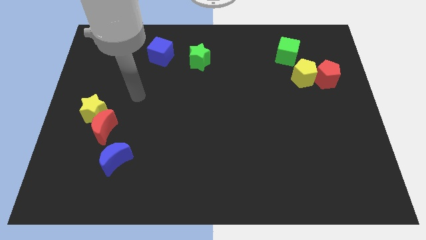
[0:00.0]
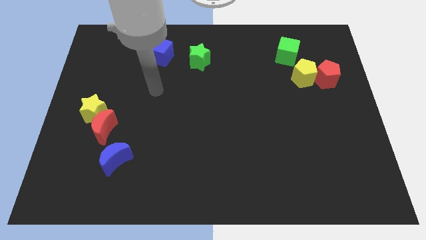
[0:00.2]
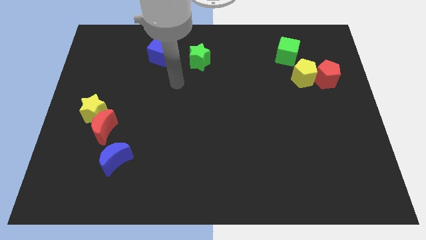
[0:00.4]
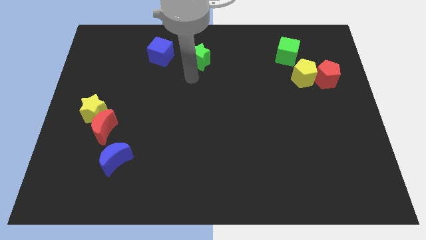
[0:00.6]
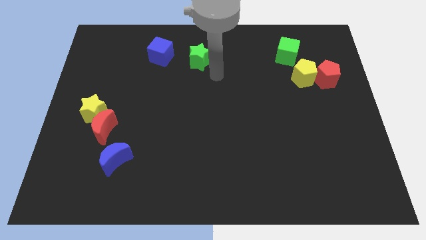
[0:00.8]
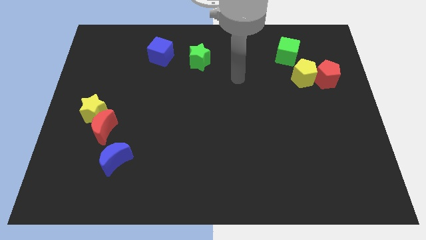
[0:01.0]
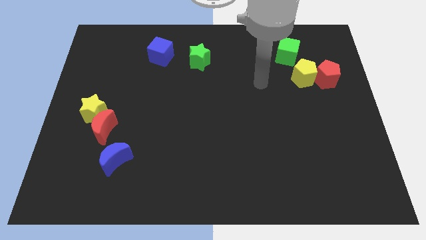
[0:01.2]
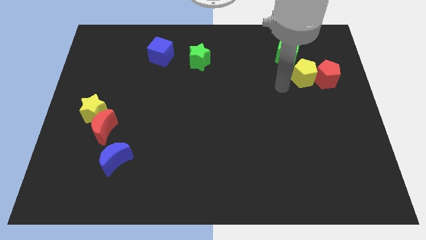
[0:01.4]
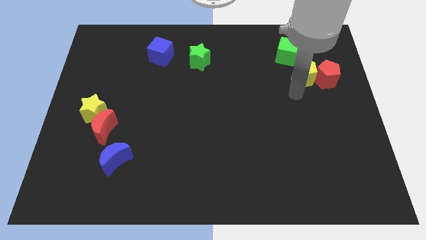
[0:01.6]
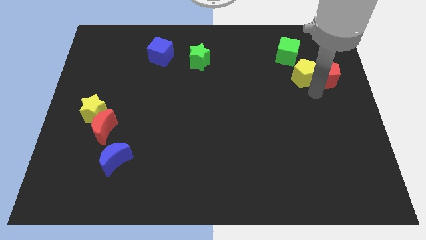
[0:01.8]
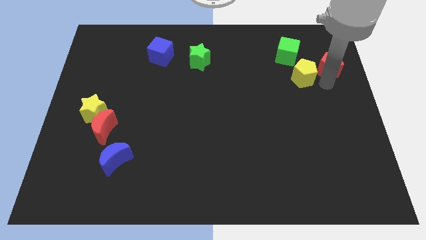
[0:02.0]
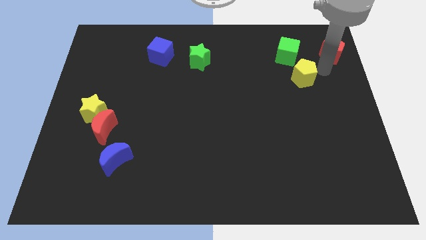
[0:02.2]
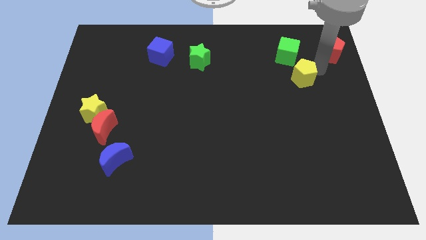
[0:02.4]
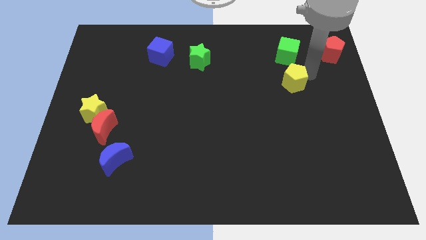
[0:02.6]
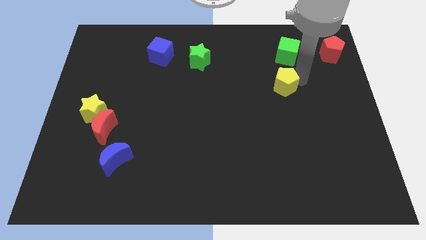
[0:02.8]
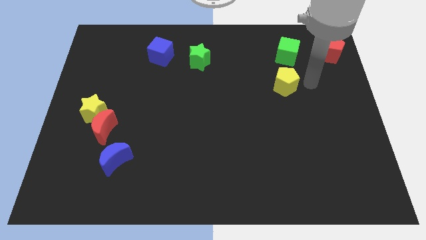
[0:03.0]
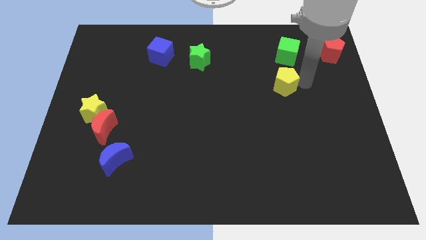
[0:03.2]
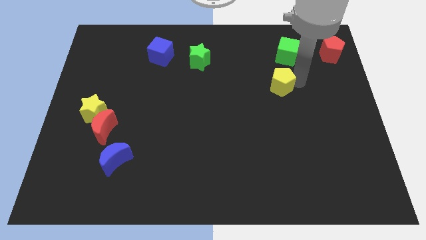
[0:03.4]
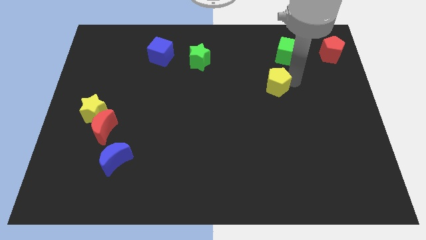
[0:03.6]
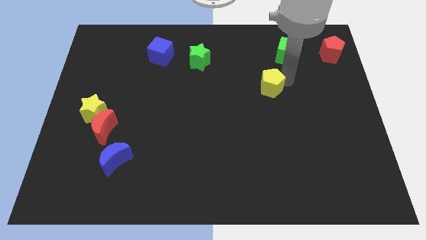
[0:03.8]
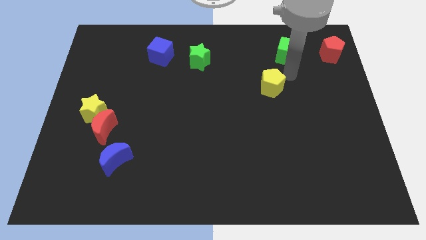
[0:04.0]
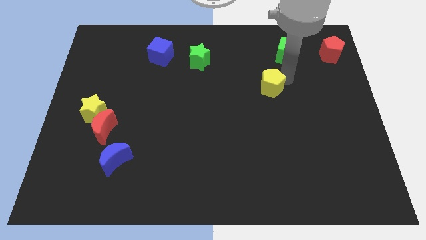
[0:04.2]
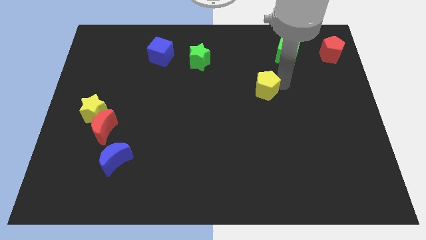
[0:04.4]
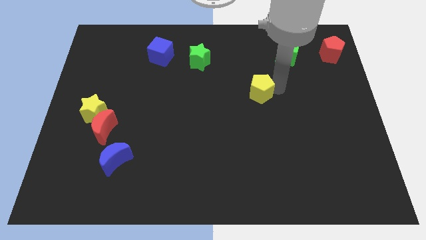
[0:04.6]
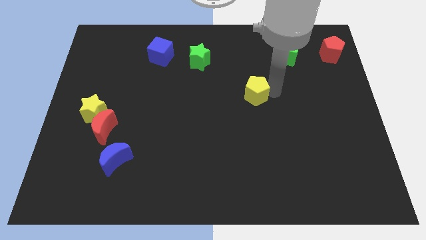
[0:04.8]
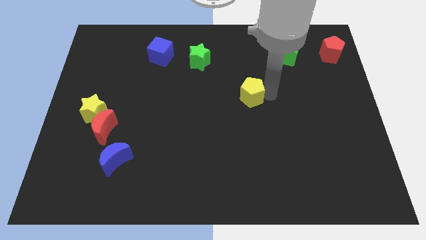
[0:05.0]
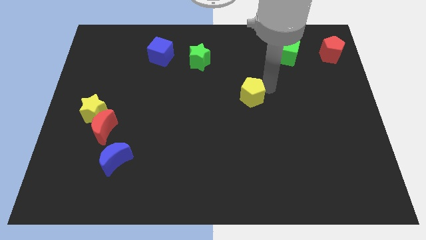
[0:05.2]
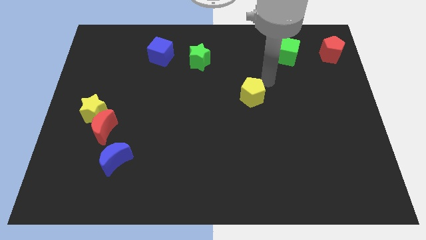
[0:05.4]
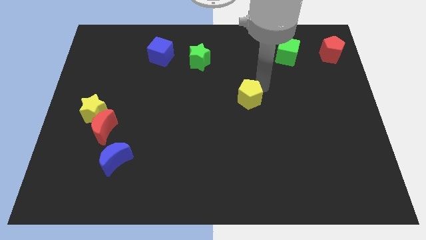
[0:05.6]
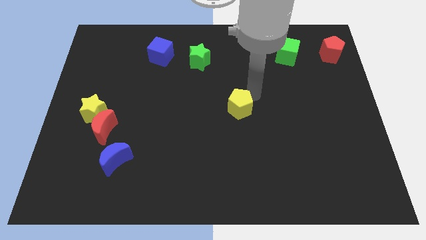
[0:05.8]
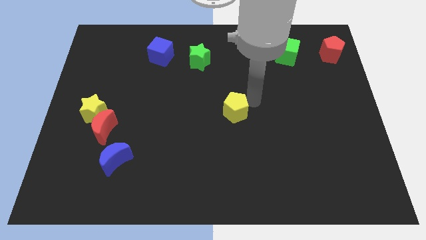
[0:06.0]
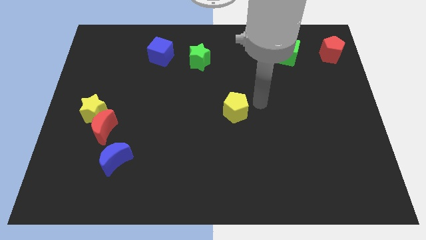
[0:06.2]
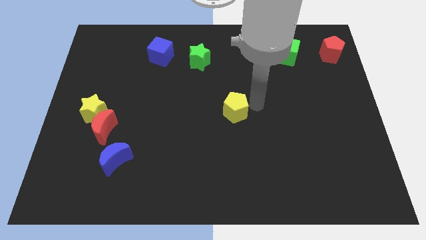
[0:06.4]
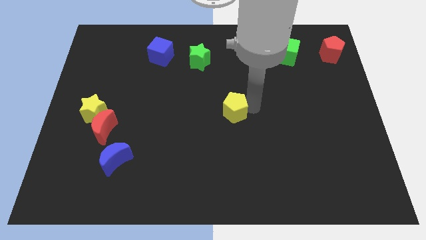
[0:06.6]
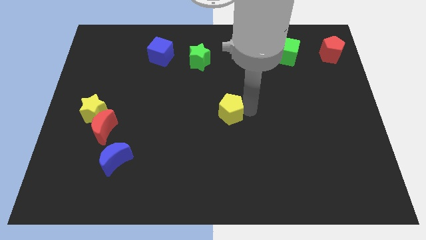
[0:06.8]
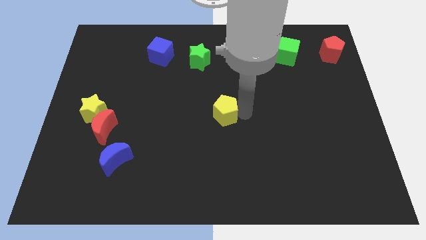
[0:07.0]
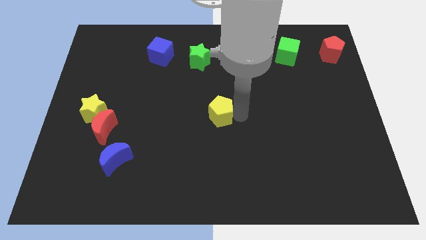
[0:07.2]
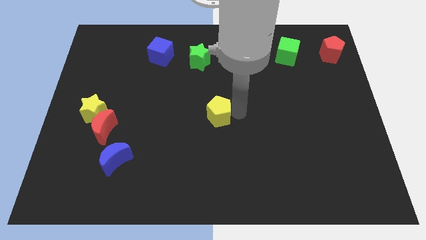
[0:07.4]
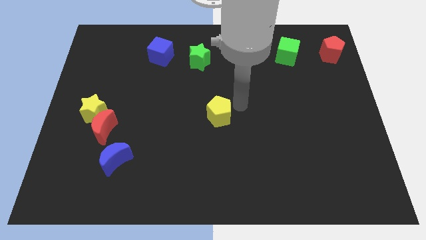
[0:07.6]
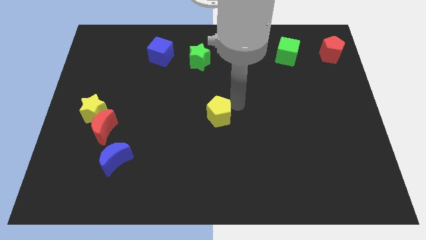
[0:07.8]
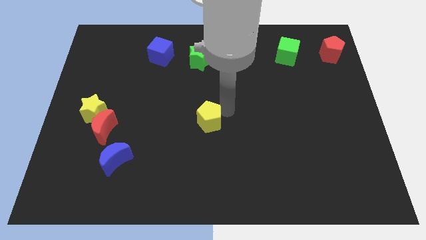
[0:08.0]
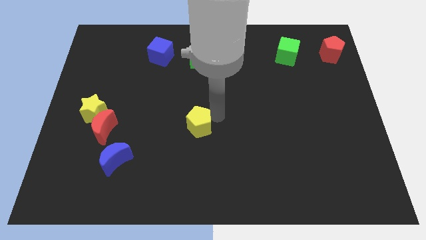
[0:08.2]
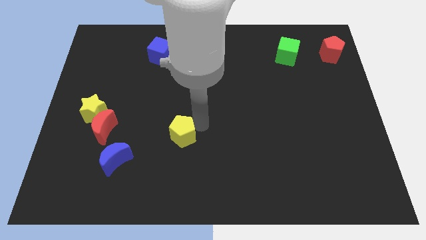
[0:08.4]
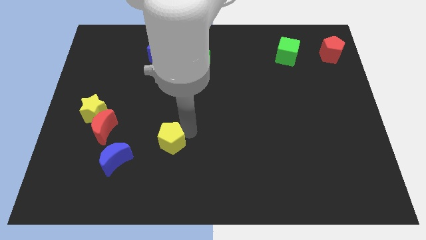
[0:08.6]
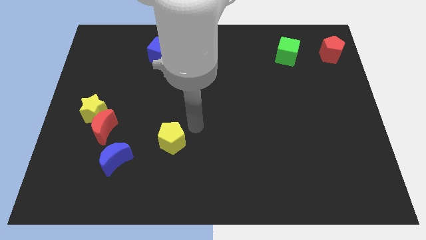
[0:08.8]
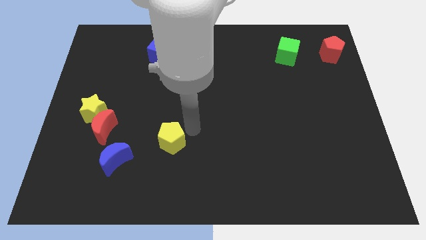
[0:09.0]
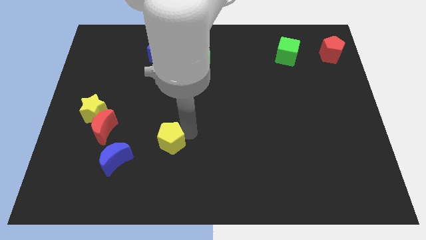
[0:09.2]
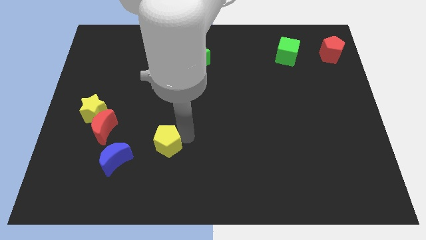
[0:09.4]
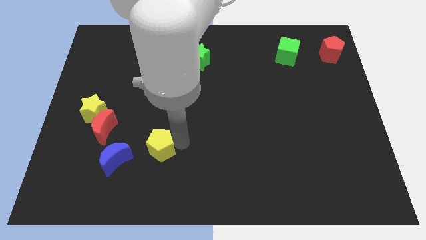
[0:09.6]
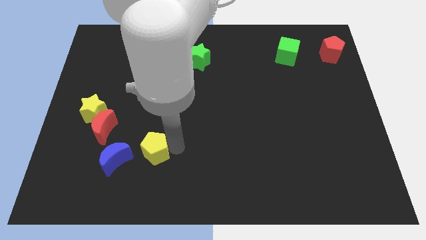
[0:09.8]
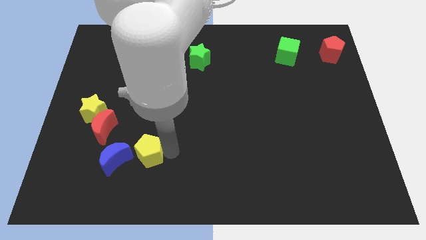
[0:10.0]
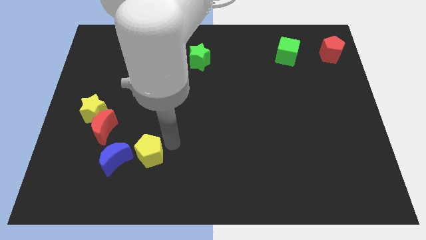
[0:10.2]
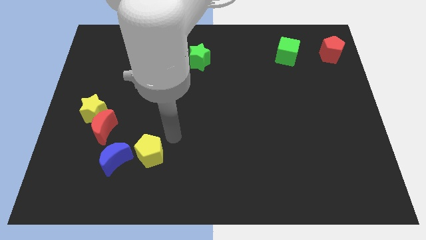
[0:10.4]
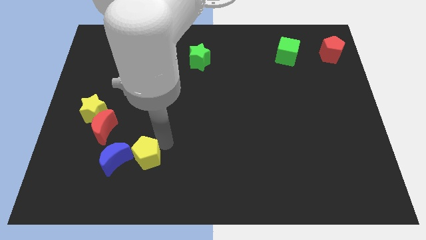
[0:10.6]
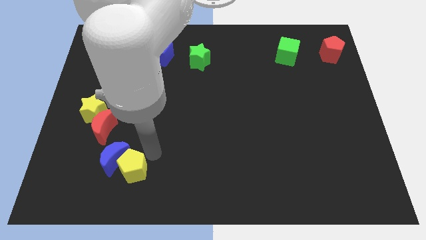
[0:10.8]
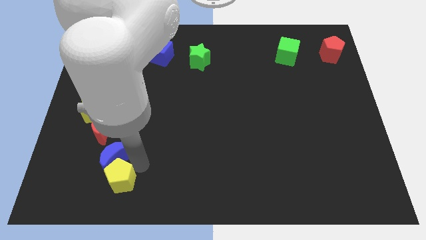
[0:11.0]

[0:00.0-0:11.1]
slide the yellow pentagon to the bottom left of the blue moon
